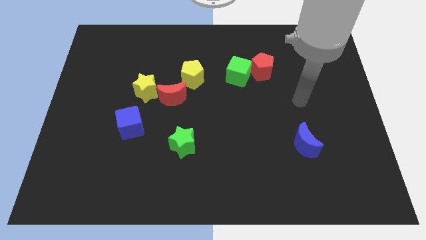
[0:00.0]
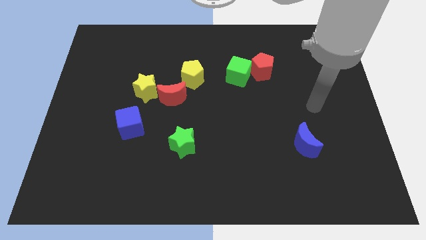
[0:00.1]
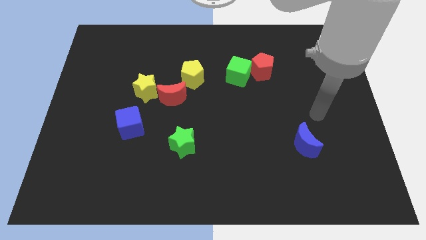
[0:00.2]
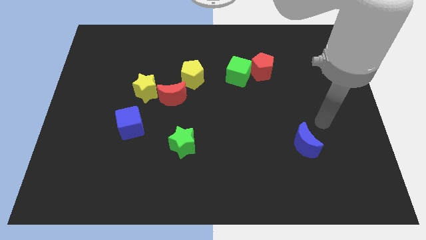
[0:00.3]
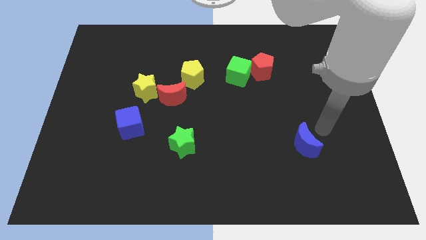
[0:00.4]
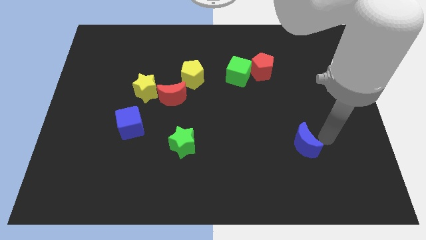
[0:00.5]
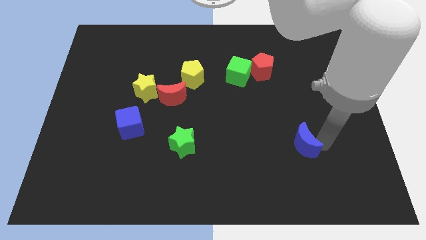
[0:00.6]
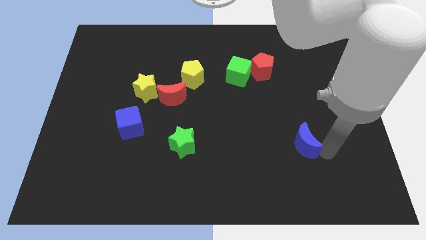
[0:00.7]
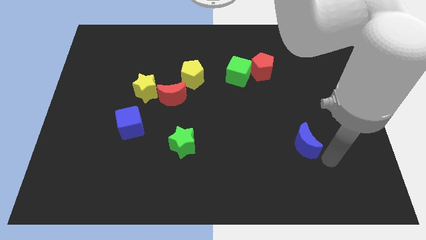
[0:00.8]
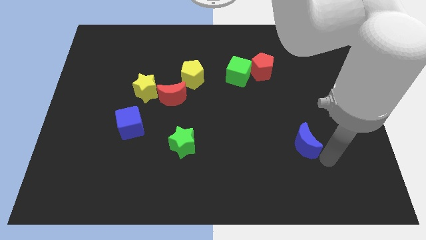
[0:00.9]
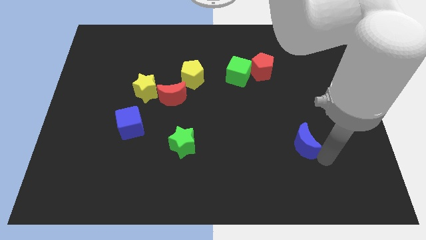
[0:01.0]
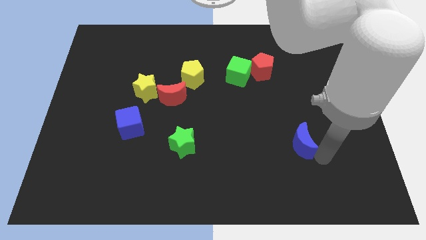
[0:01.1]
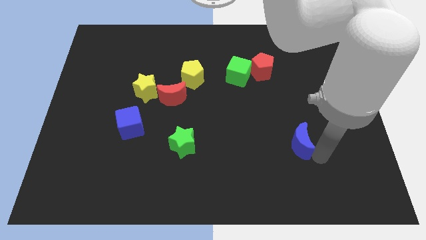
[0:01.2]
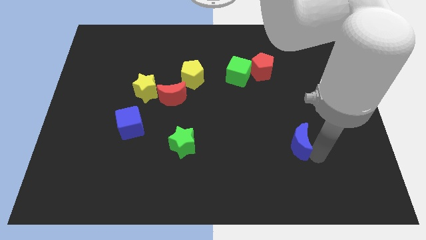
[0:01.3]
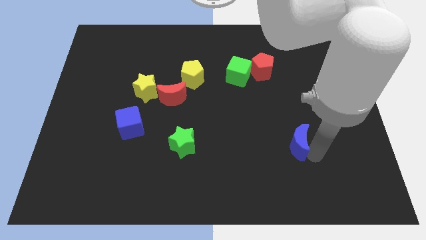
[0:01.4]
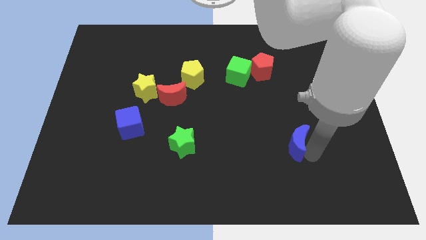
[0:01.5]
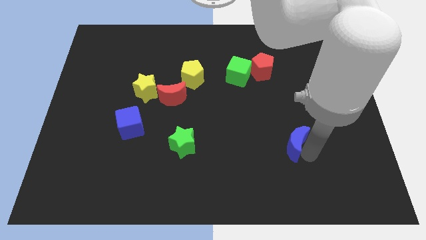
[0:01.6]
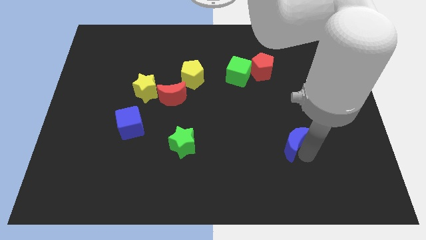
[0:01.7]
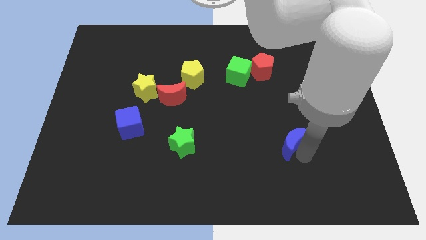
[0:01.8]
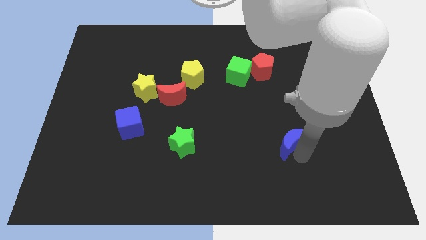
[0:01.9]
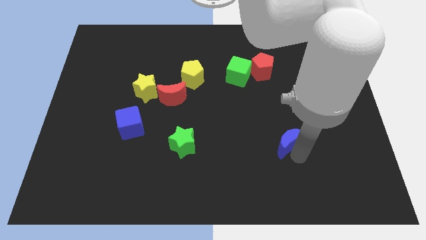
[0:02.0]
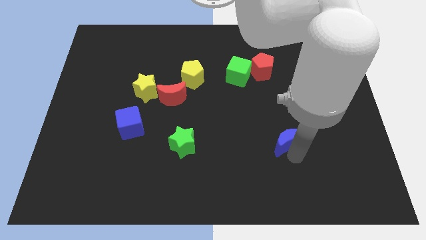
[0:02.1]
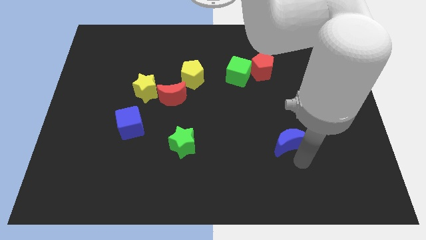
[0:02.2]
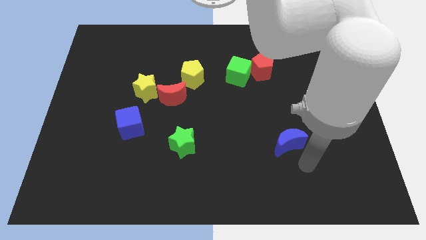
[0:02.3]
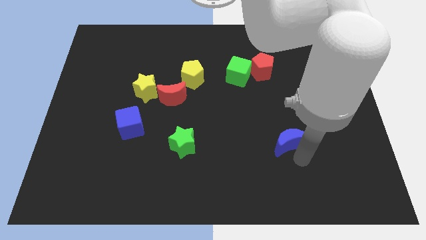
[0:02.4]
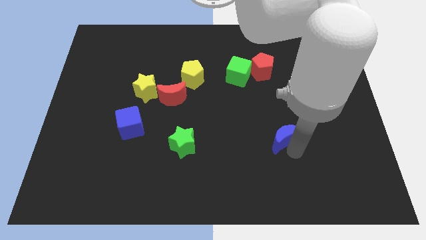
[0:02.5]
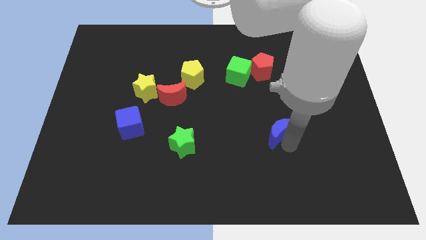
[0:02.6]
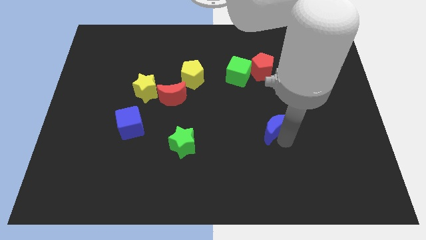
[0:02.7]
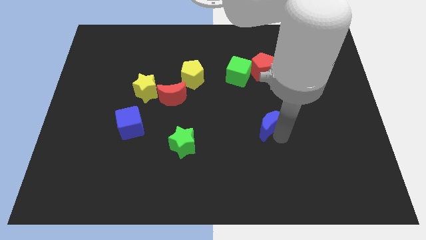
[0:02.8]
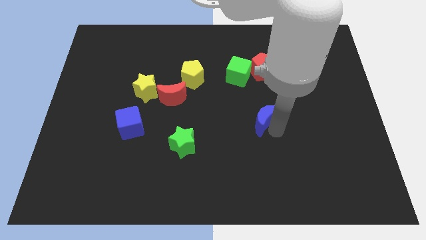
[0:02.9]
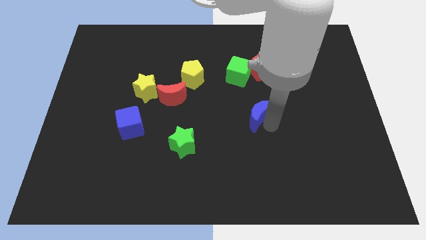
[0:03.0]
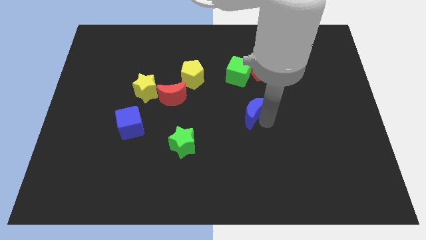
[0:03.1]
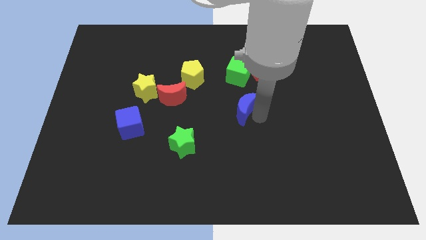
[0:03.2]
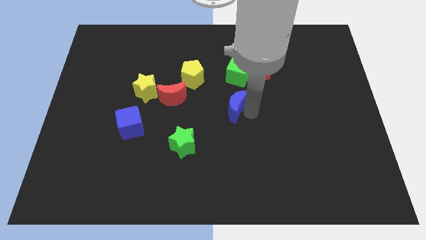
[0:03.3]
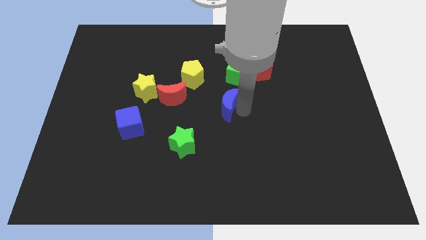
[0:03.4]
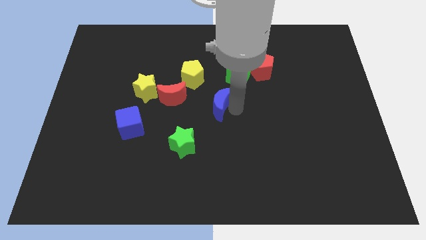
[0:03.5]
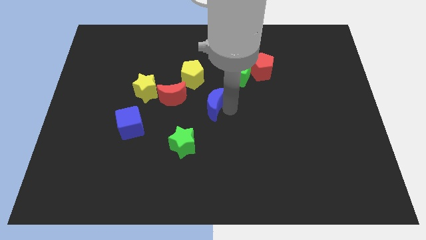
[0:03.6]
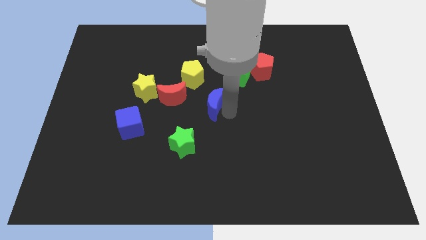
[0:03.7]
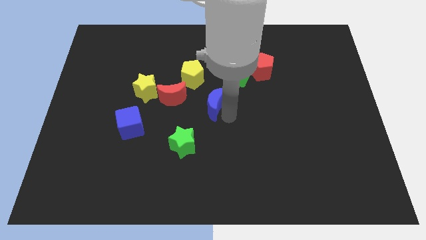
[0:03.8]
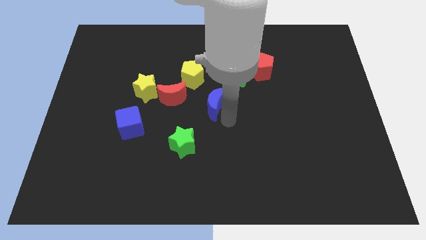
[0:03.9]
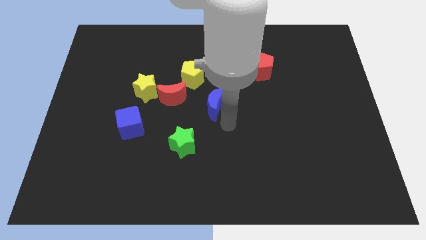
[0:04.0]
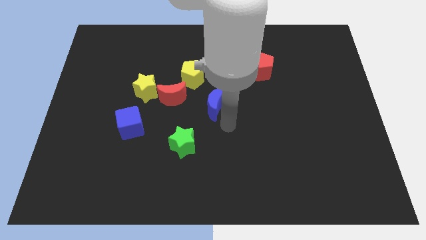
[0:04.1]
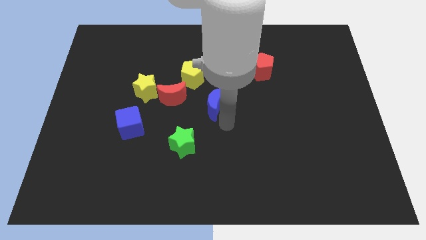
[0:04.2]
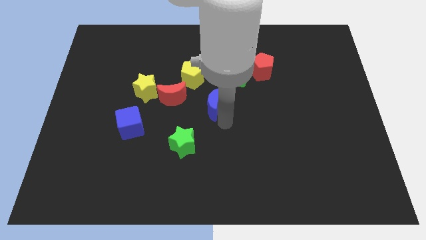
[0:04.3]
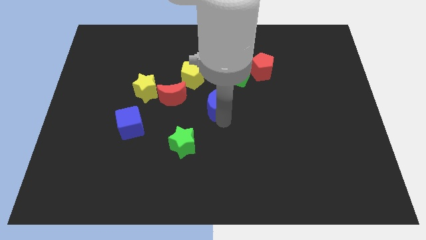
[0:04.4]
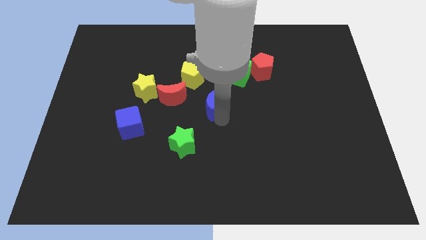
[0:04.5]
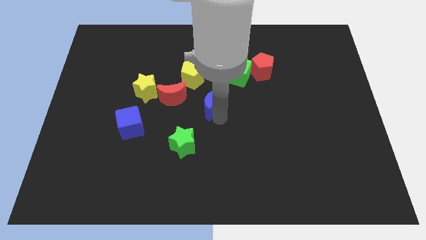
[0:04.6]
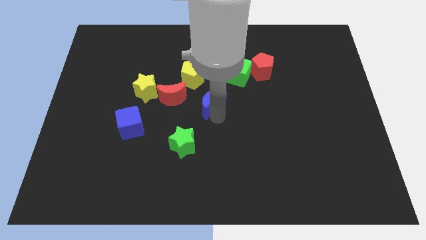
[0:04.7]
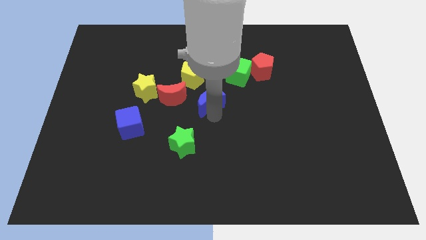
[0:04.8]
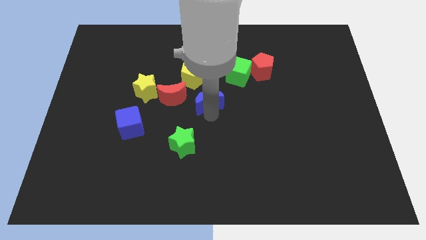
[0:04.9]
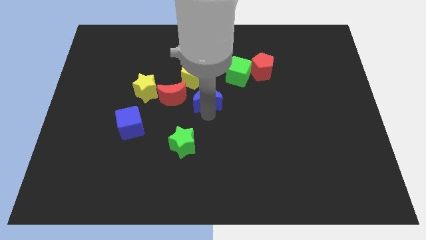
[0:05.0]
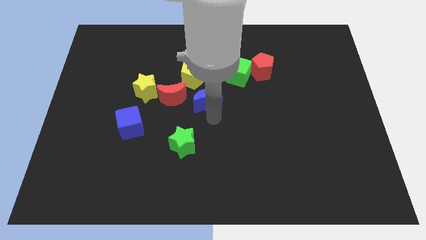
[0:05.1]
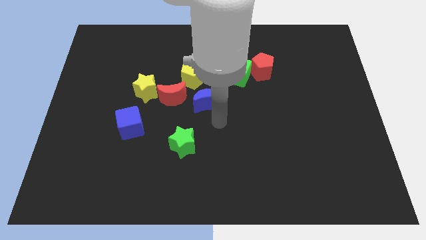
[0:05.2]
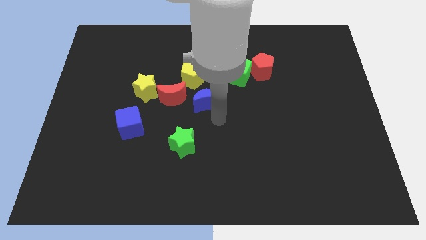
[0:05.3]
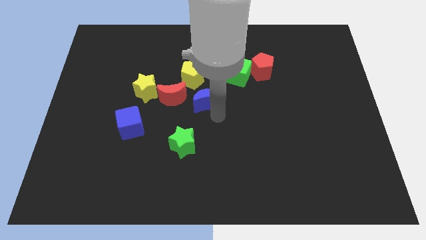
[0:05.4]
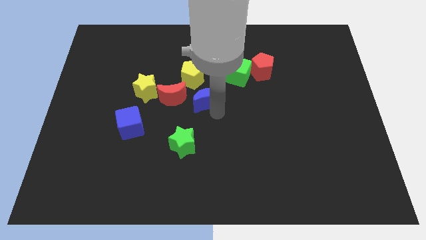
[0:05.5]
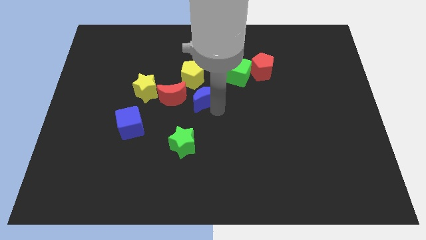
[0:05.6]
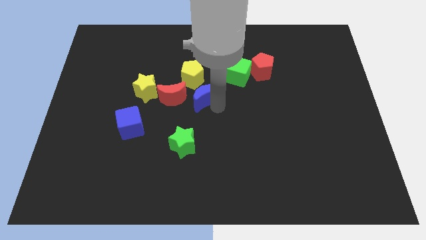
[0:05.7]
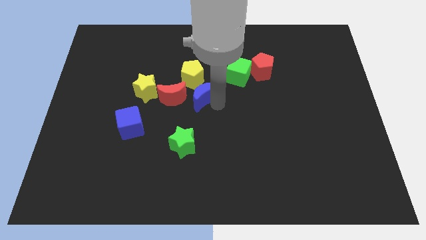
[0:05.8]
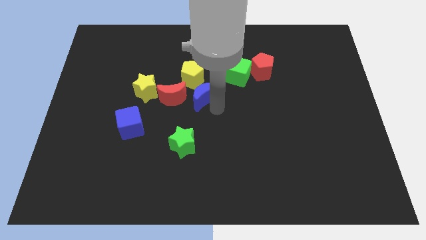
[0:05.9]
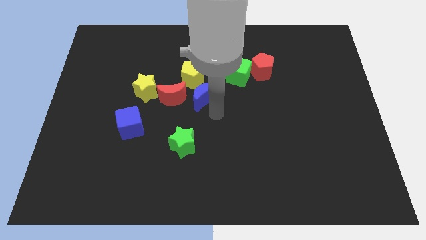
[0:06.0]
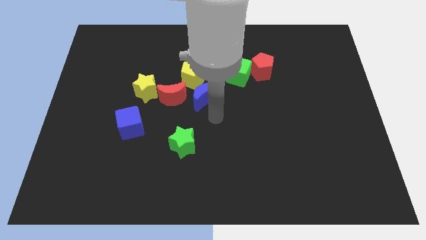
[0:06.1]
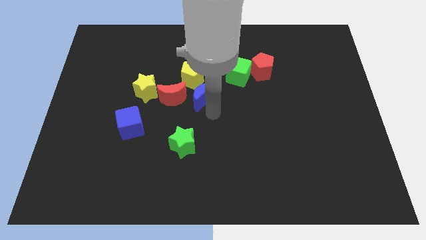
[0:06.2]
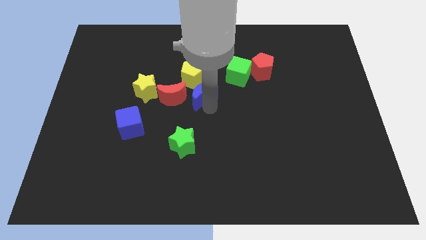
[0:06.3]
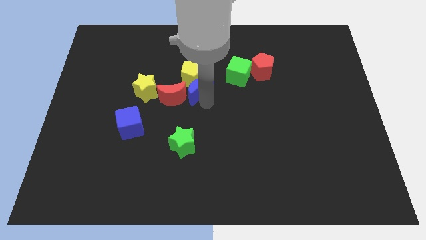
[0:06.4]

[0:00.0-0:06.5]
slide the blue moon close to the yellow pentagon

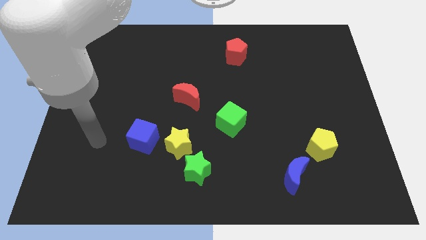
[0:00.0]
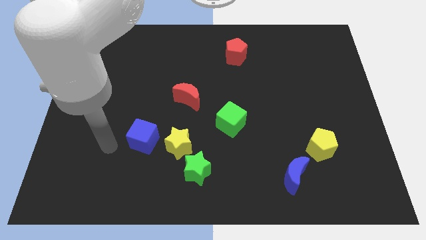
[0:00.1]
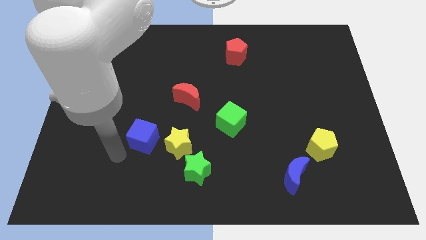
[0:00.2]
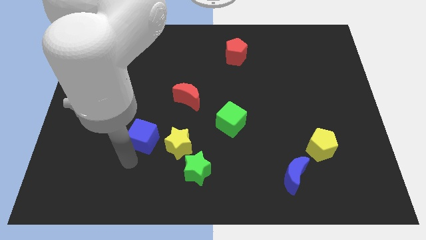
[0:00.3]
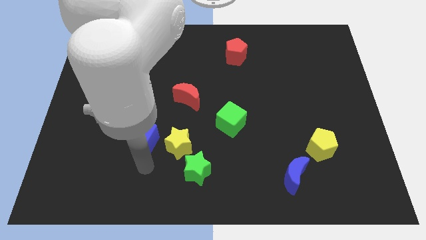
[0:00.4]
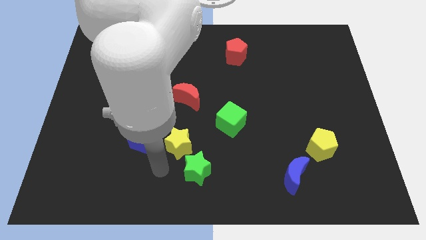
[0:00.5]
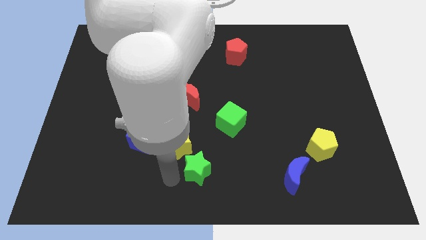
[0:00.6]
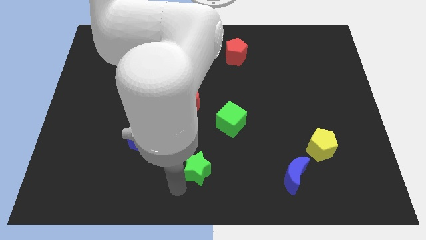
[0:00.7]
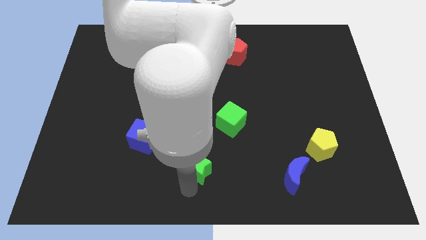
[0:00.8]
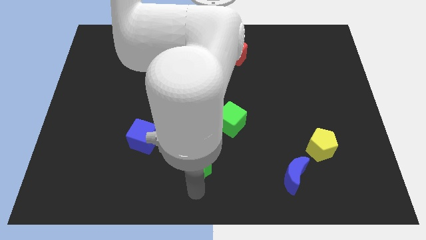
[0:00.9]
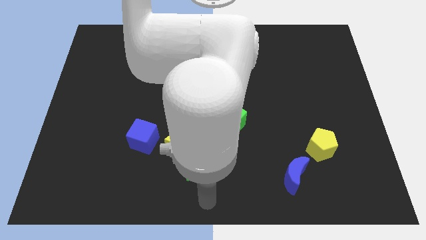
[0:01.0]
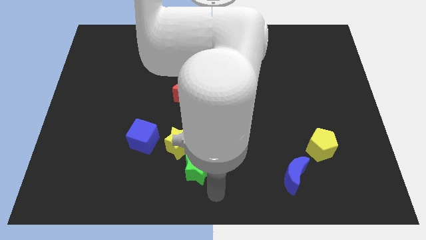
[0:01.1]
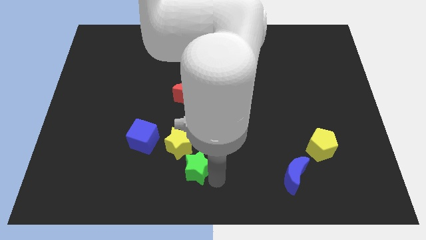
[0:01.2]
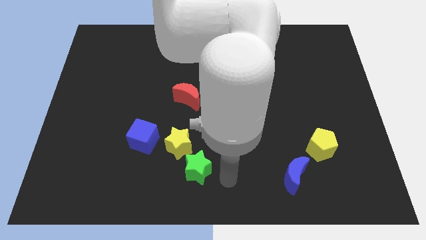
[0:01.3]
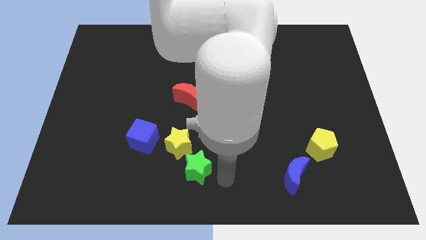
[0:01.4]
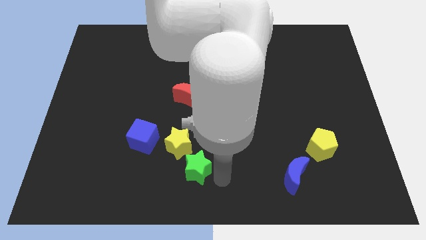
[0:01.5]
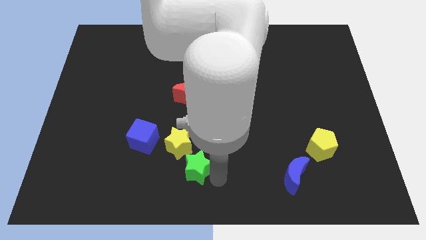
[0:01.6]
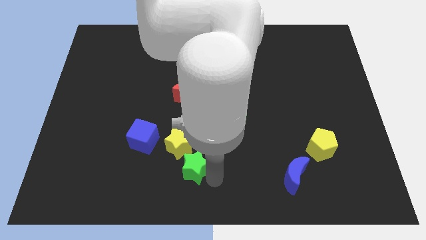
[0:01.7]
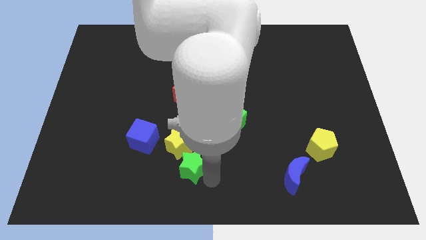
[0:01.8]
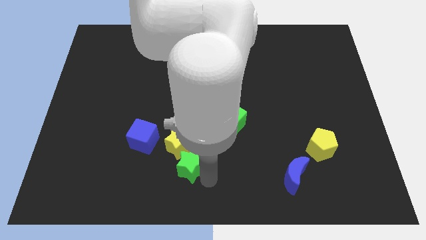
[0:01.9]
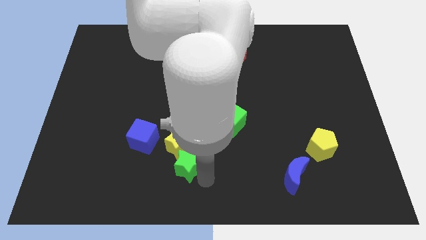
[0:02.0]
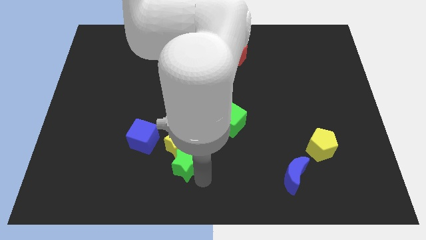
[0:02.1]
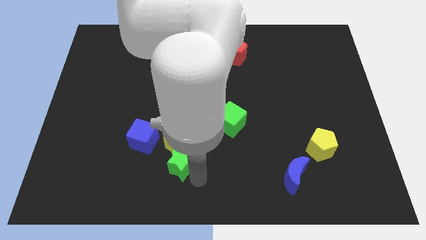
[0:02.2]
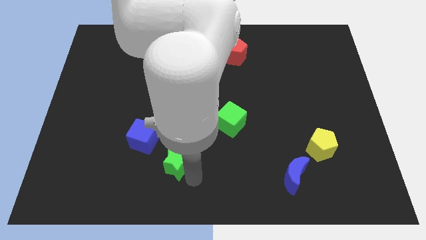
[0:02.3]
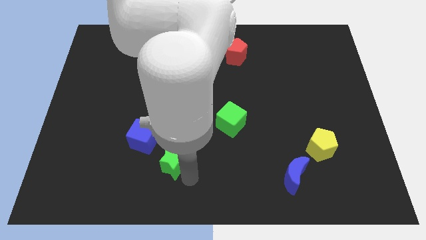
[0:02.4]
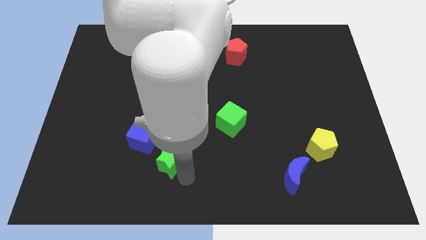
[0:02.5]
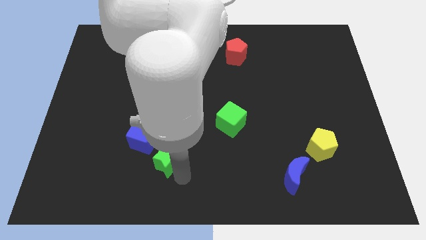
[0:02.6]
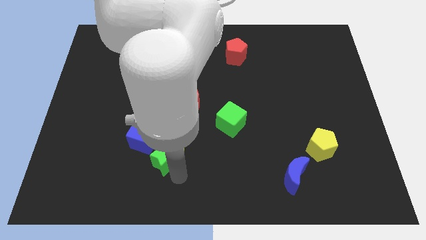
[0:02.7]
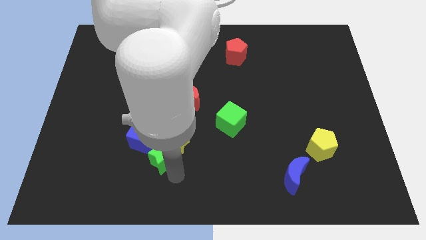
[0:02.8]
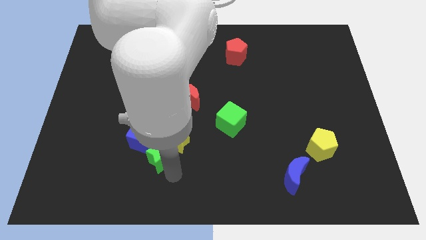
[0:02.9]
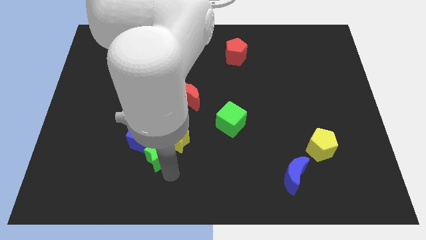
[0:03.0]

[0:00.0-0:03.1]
slide the green star towards the blue cube
